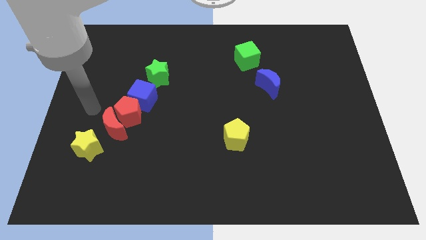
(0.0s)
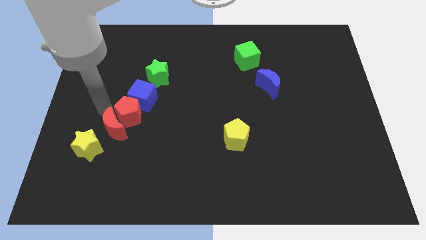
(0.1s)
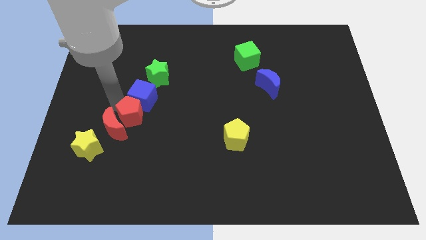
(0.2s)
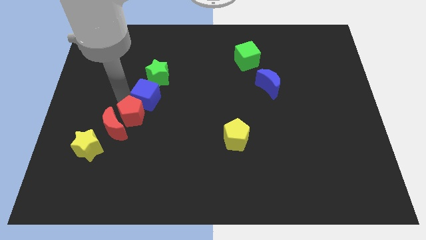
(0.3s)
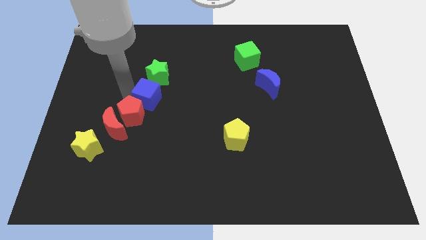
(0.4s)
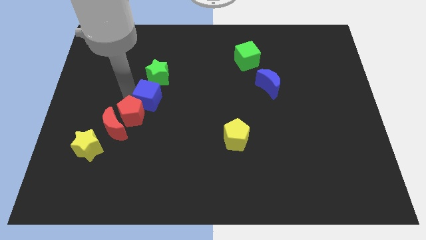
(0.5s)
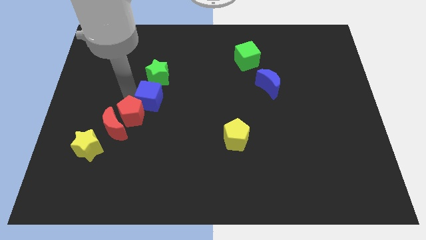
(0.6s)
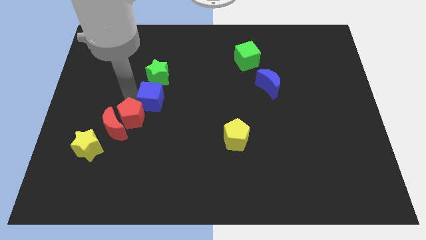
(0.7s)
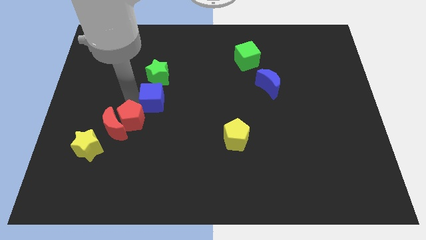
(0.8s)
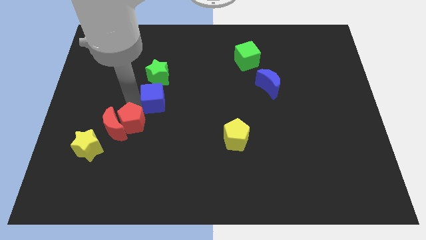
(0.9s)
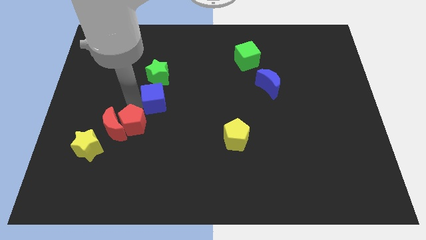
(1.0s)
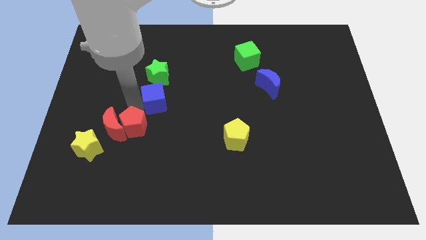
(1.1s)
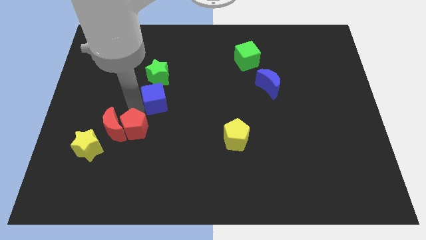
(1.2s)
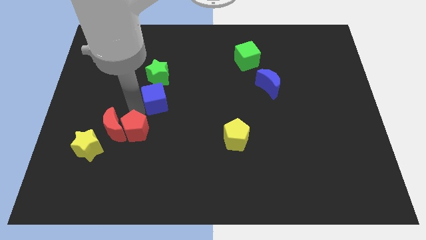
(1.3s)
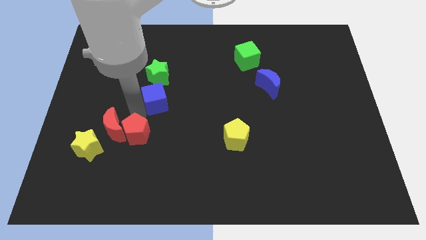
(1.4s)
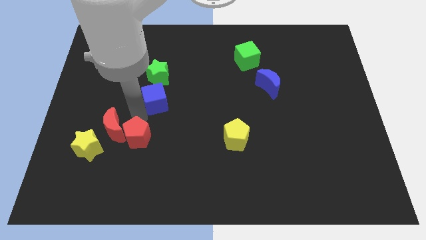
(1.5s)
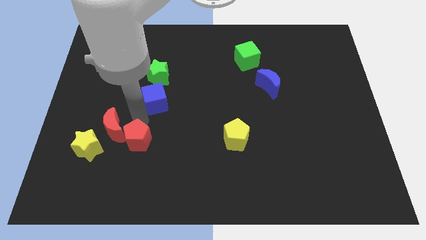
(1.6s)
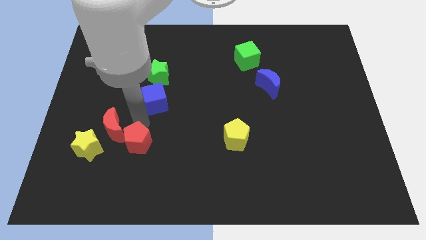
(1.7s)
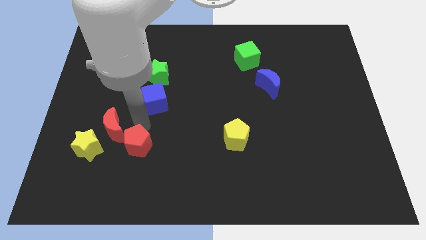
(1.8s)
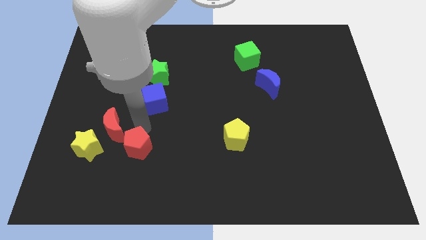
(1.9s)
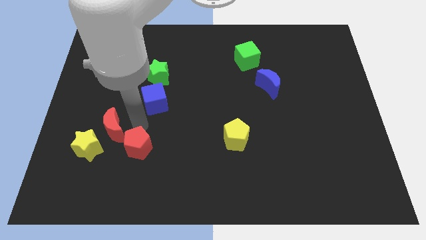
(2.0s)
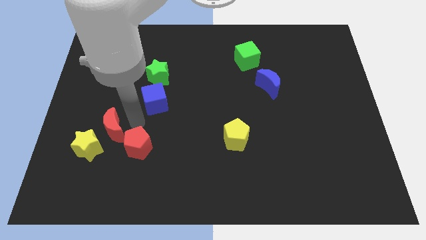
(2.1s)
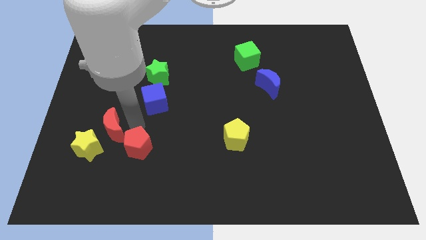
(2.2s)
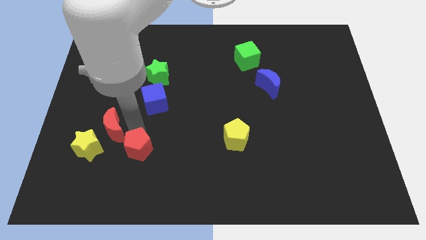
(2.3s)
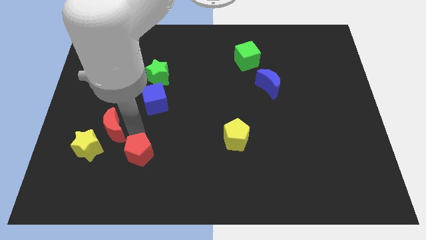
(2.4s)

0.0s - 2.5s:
move the red pentagon away from the red moon and blue cube

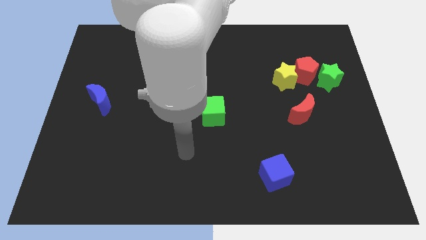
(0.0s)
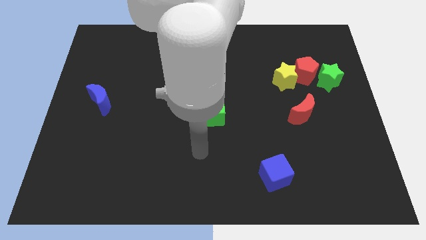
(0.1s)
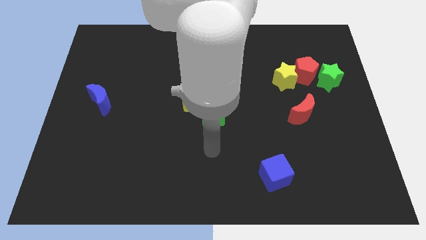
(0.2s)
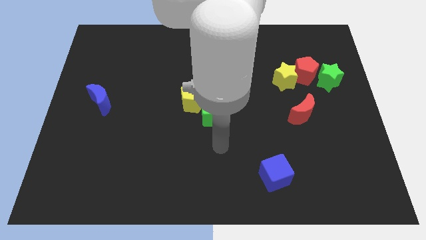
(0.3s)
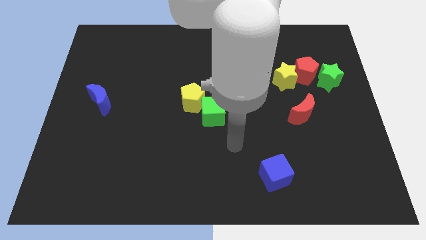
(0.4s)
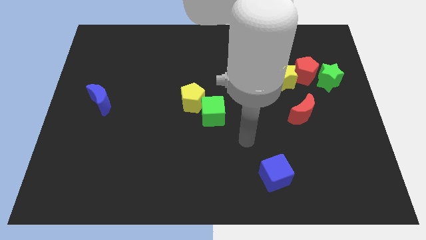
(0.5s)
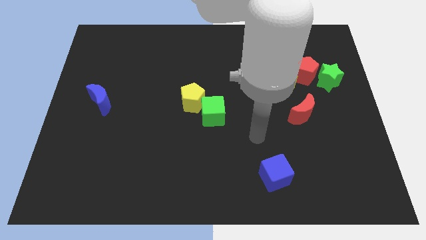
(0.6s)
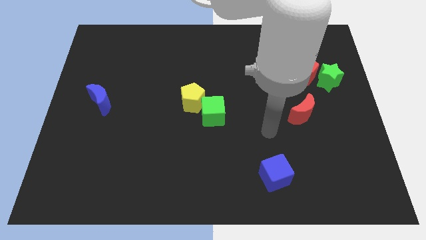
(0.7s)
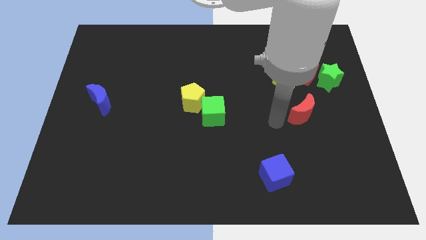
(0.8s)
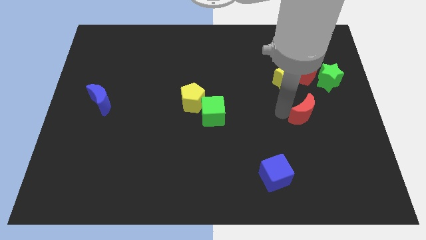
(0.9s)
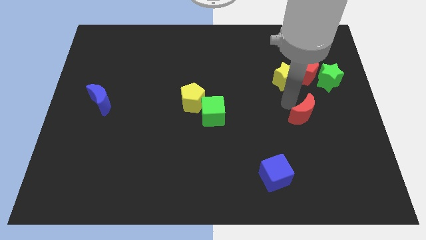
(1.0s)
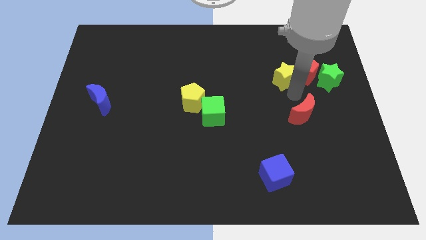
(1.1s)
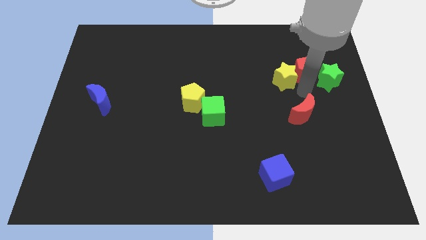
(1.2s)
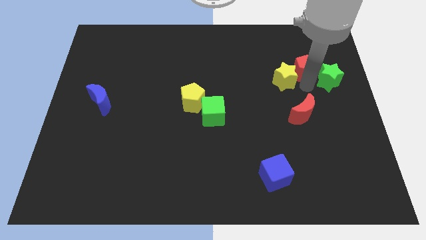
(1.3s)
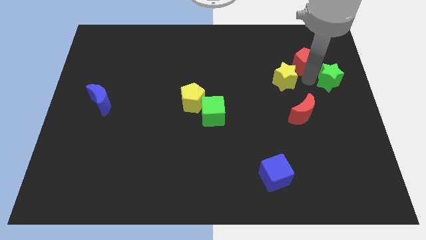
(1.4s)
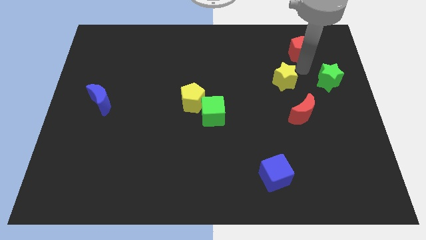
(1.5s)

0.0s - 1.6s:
move the yellow star away from the red pentagon

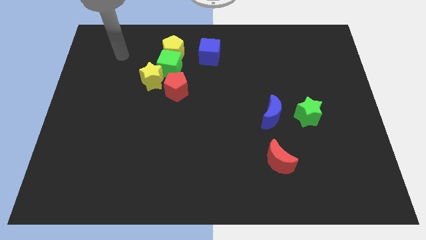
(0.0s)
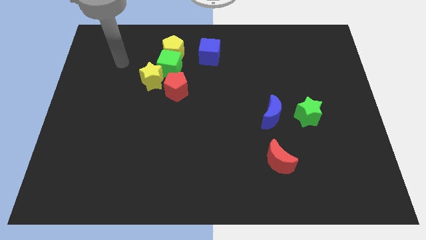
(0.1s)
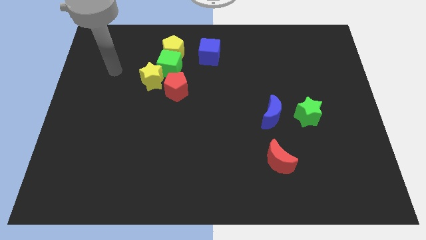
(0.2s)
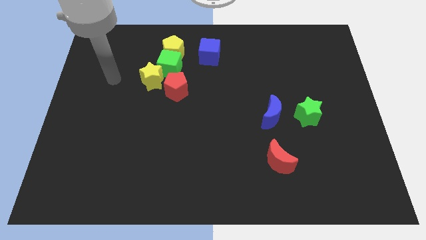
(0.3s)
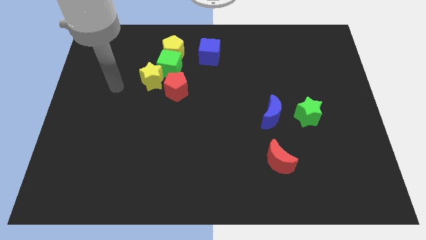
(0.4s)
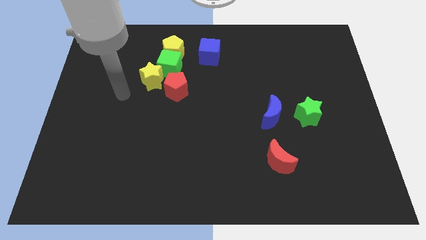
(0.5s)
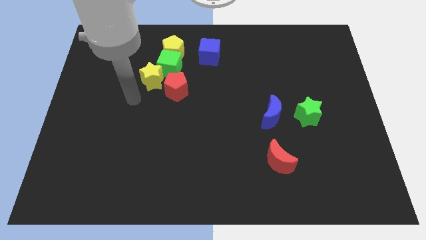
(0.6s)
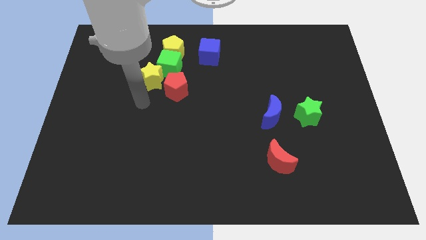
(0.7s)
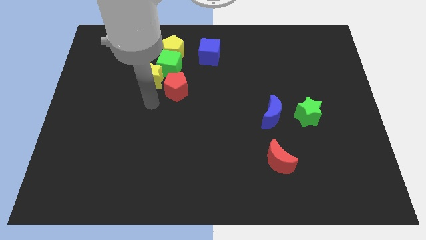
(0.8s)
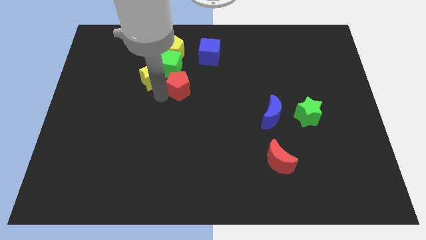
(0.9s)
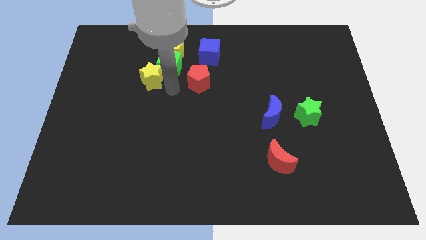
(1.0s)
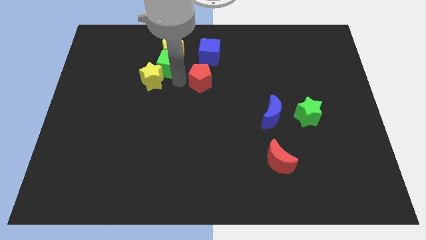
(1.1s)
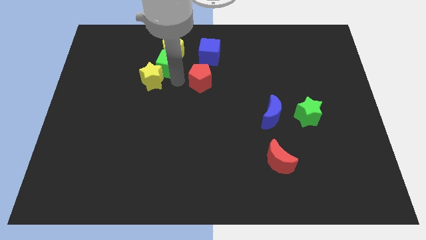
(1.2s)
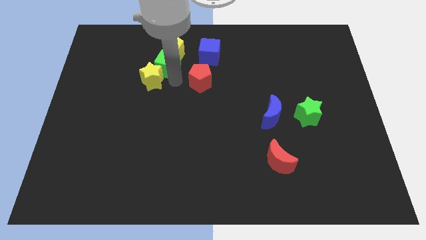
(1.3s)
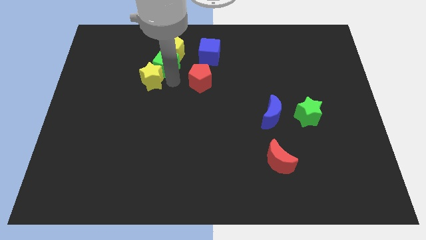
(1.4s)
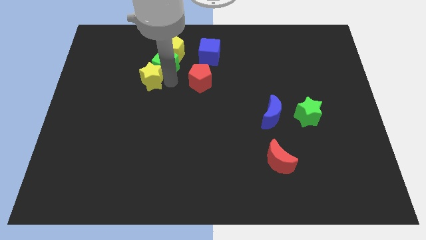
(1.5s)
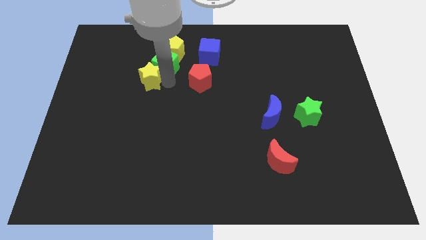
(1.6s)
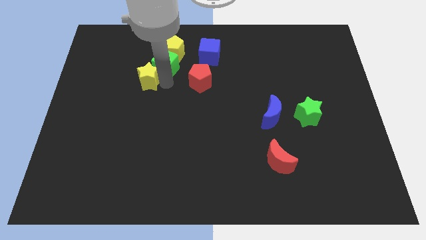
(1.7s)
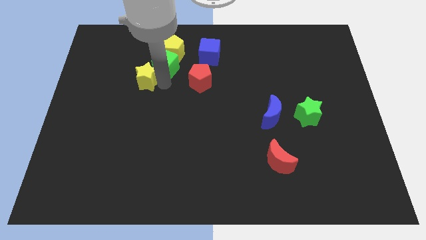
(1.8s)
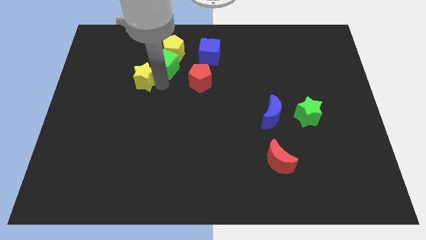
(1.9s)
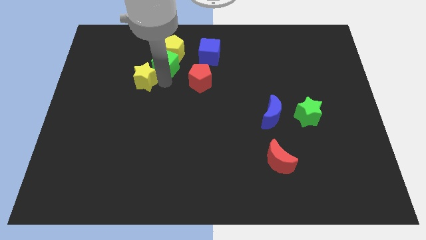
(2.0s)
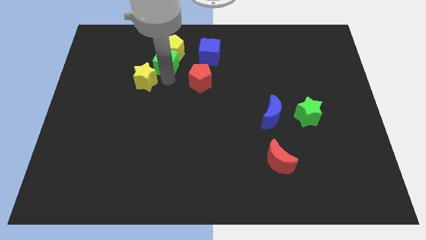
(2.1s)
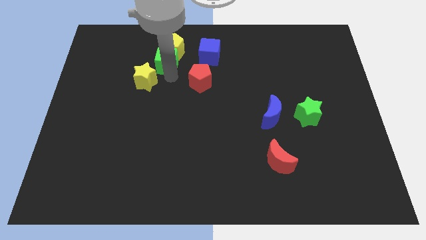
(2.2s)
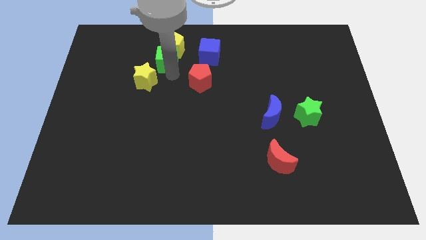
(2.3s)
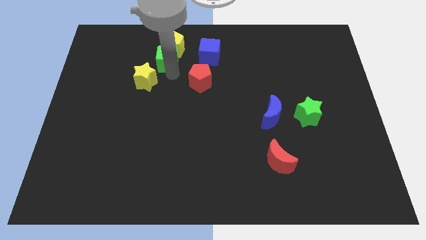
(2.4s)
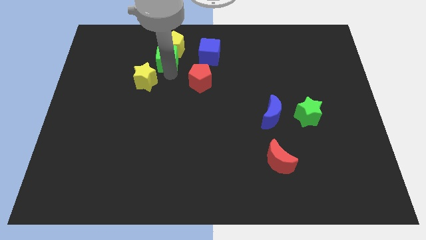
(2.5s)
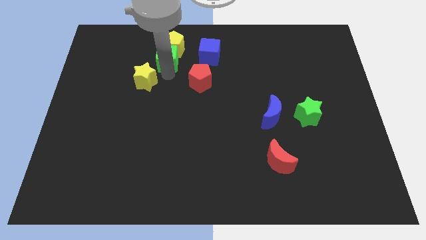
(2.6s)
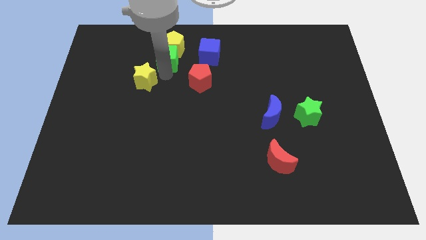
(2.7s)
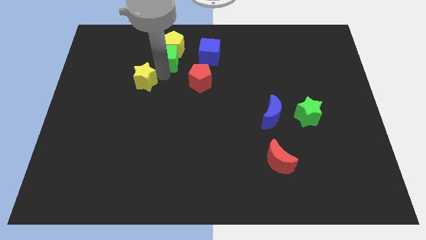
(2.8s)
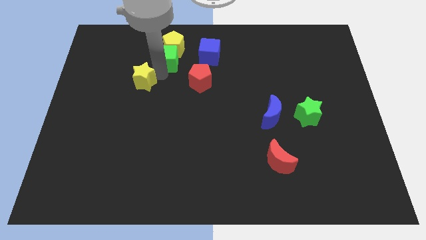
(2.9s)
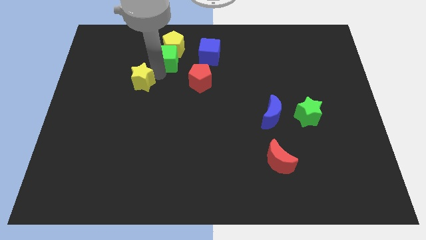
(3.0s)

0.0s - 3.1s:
move the yellow star away from the green cube and red pentagon

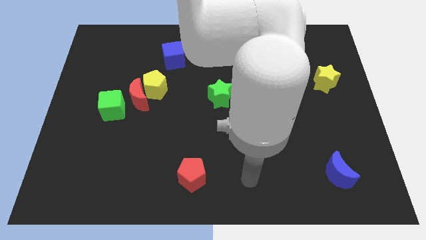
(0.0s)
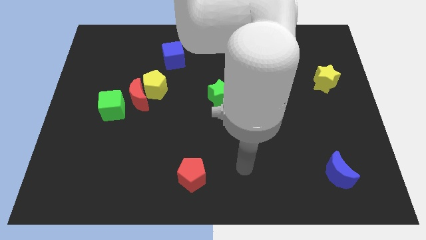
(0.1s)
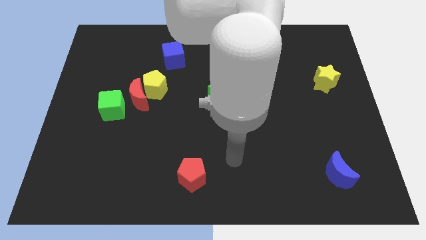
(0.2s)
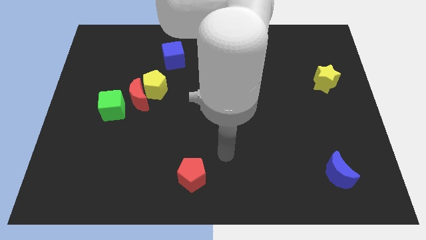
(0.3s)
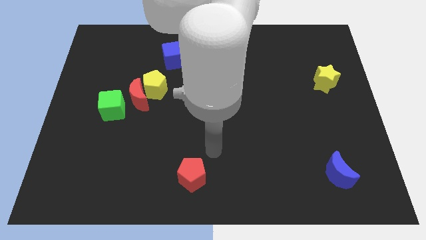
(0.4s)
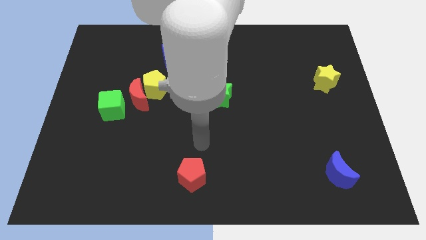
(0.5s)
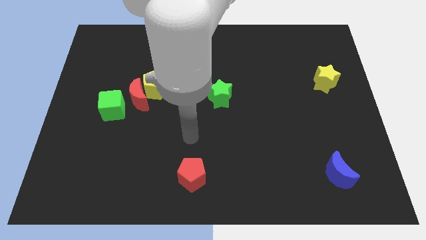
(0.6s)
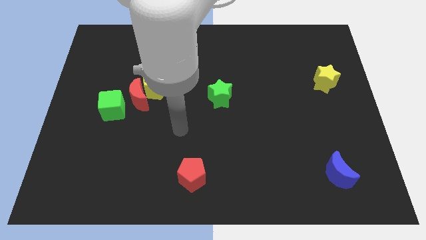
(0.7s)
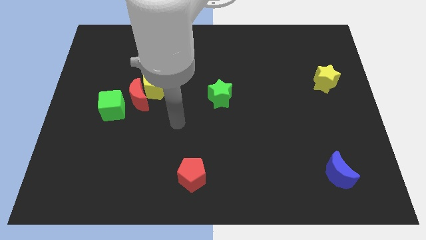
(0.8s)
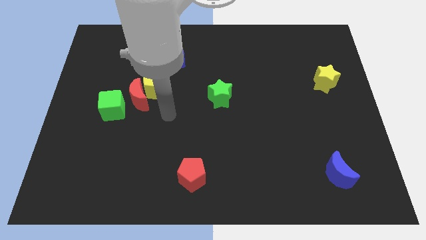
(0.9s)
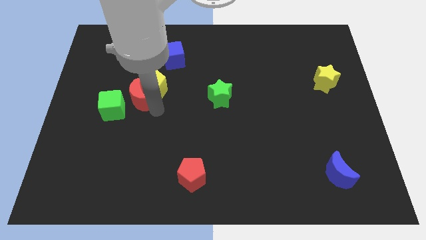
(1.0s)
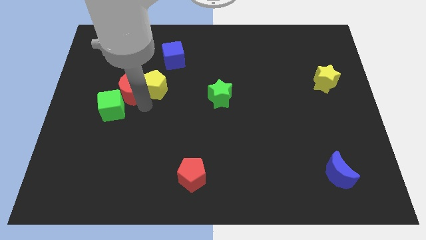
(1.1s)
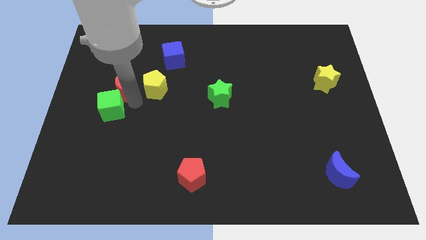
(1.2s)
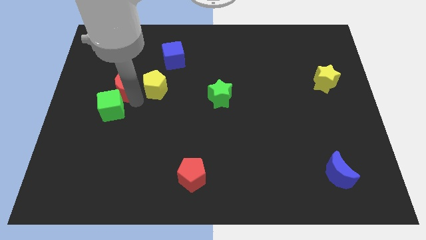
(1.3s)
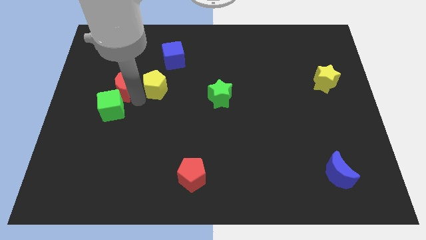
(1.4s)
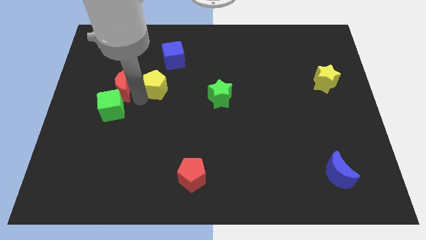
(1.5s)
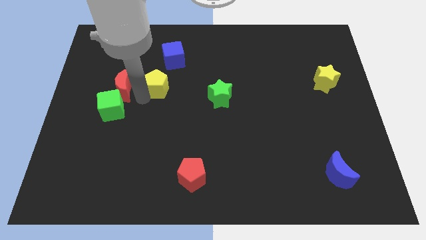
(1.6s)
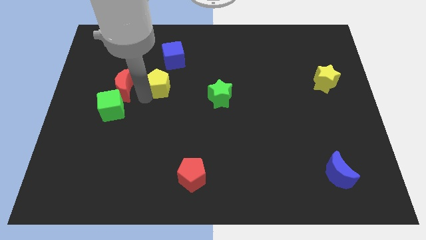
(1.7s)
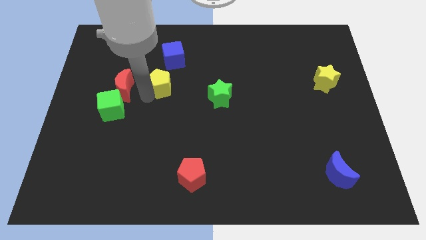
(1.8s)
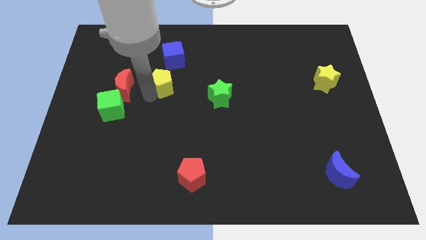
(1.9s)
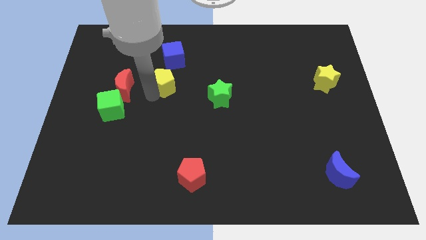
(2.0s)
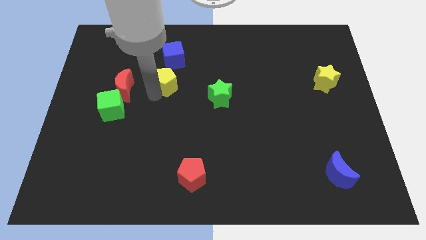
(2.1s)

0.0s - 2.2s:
separate the yellow pentagon from the red moon

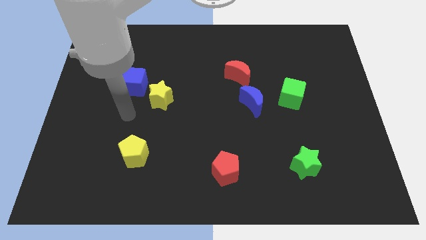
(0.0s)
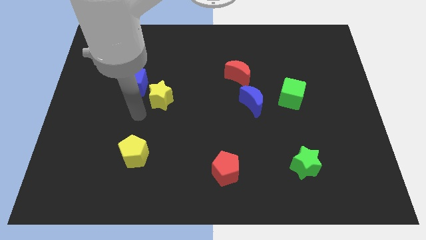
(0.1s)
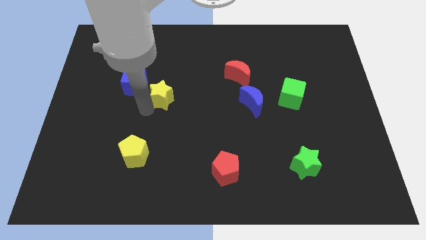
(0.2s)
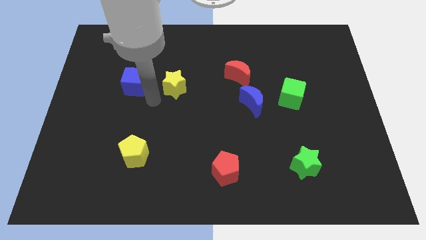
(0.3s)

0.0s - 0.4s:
move the blue cube away from the yellow star
